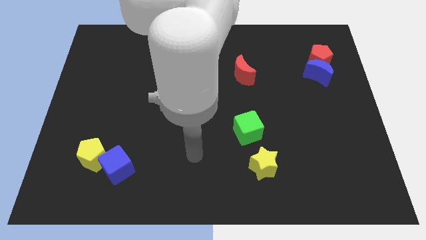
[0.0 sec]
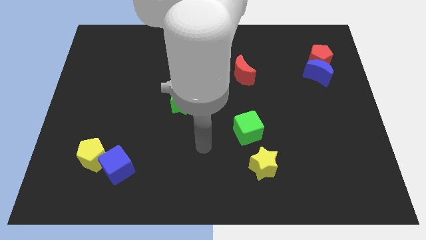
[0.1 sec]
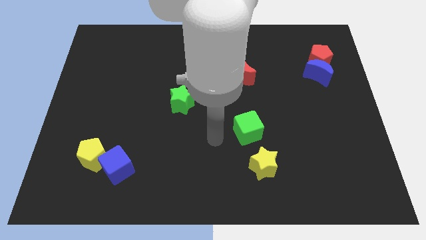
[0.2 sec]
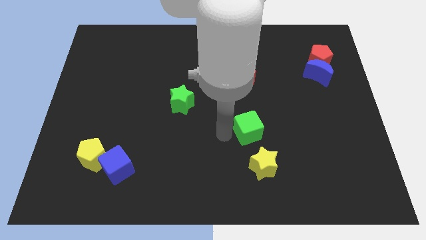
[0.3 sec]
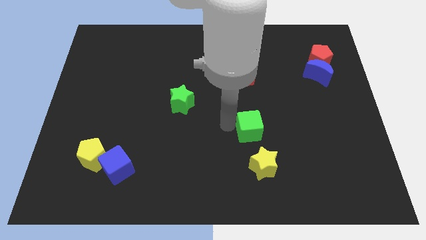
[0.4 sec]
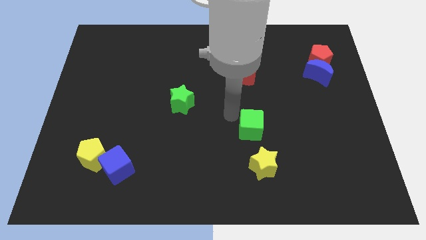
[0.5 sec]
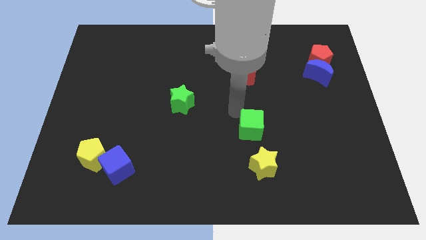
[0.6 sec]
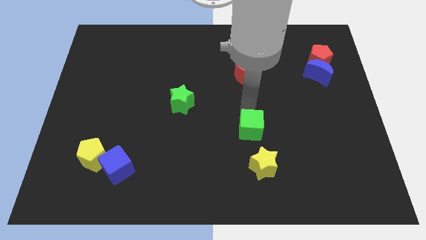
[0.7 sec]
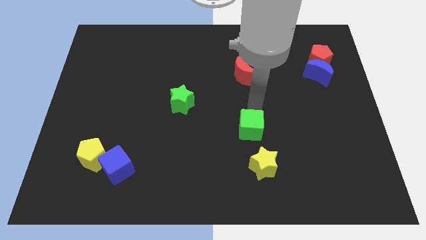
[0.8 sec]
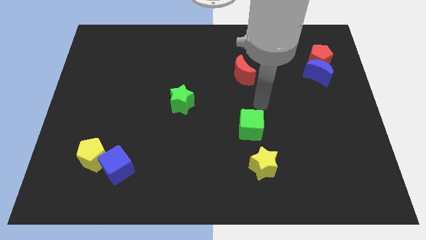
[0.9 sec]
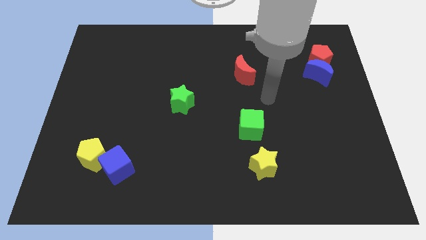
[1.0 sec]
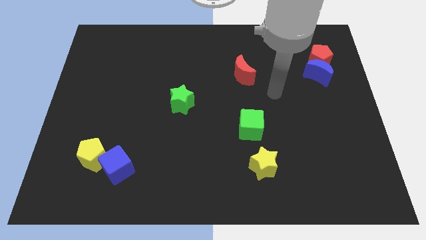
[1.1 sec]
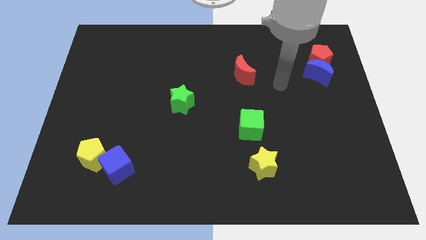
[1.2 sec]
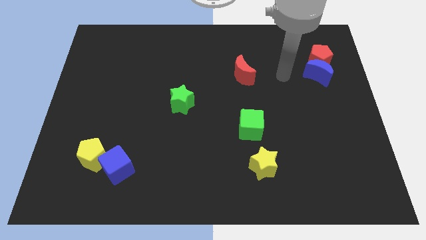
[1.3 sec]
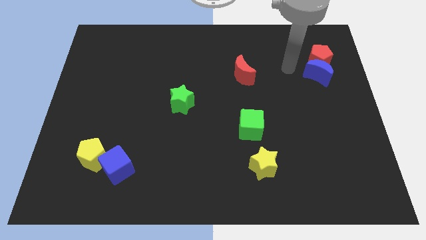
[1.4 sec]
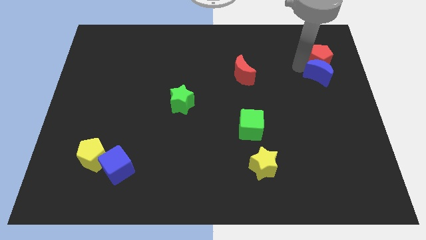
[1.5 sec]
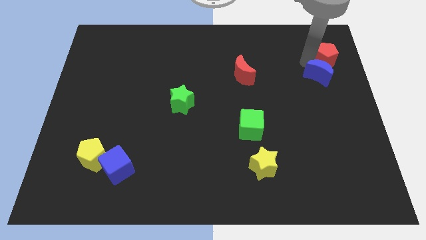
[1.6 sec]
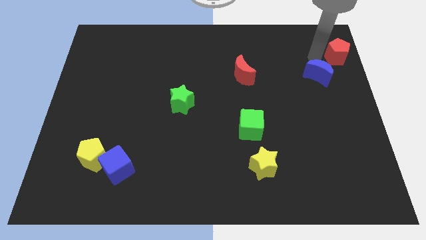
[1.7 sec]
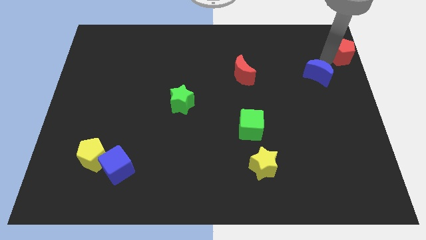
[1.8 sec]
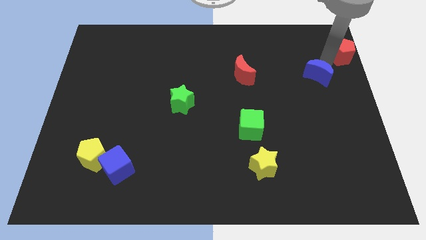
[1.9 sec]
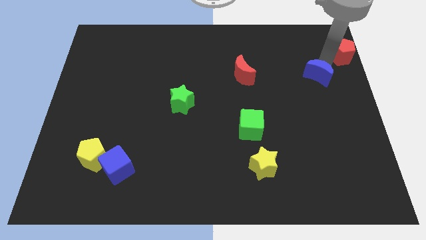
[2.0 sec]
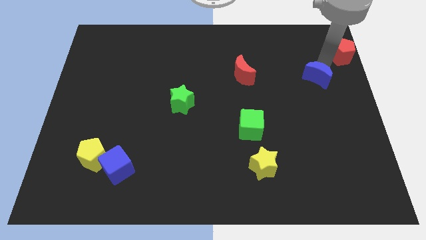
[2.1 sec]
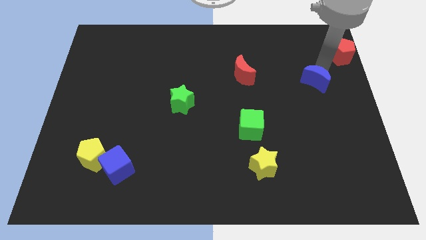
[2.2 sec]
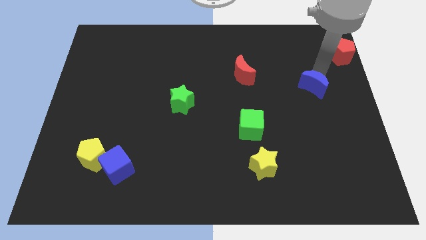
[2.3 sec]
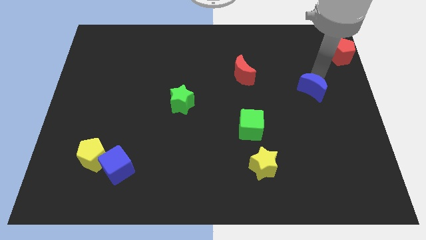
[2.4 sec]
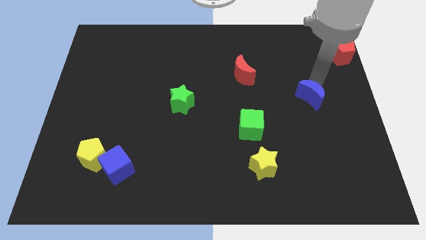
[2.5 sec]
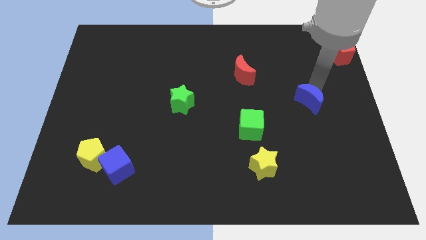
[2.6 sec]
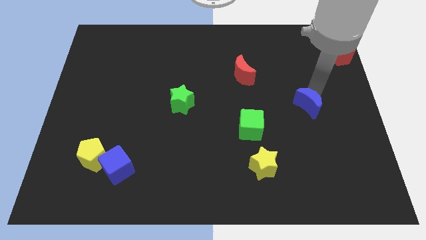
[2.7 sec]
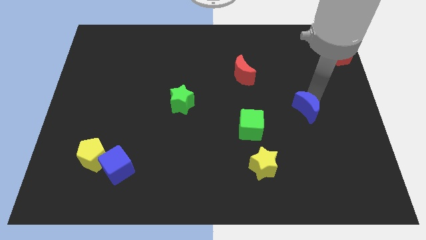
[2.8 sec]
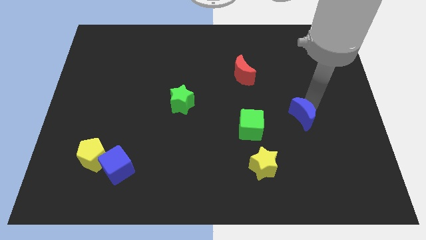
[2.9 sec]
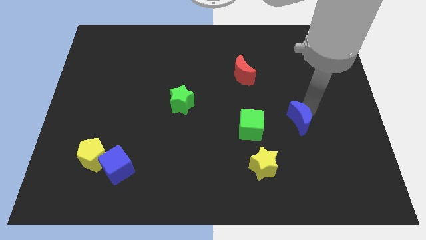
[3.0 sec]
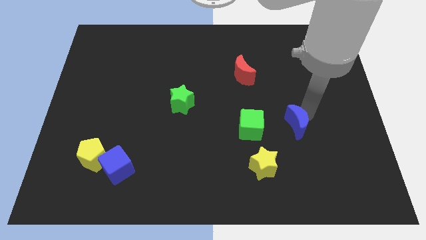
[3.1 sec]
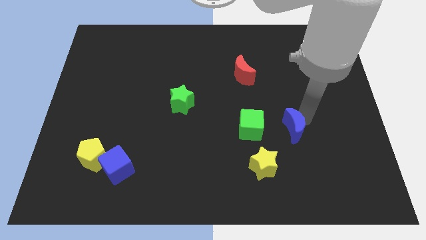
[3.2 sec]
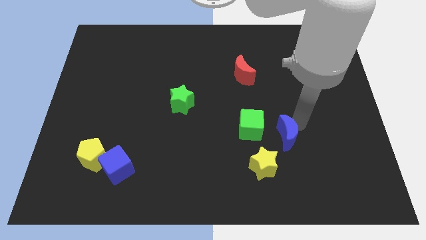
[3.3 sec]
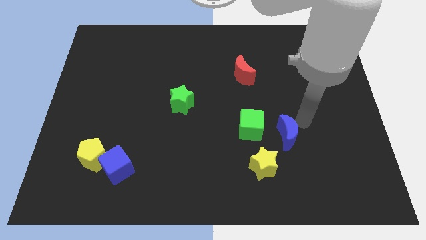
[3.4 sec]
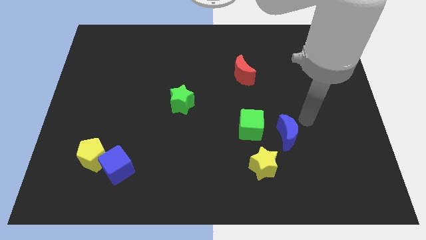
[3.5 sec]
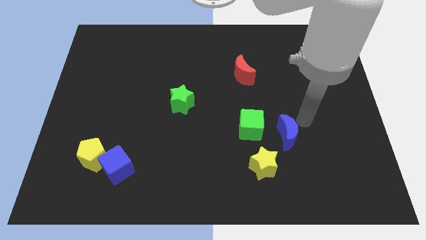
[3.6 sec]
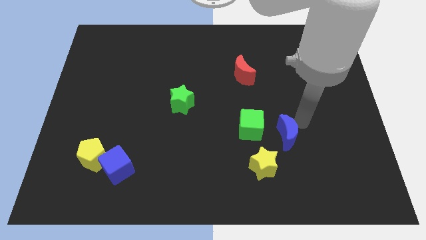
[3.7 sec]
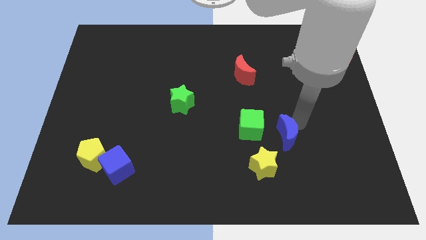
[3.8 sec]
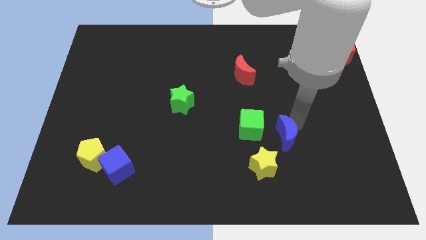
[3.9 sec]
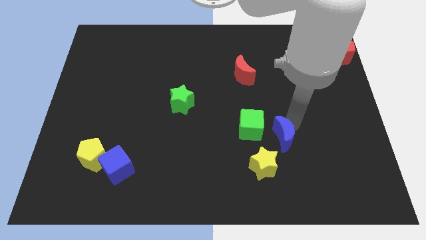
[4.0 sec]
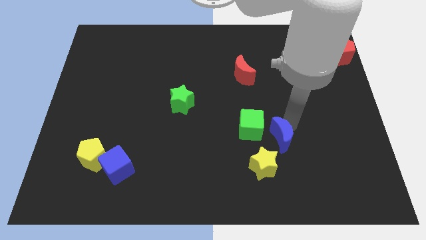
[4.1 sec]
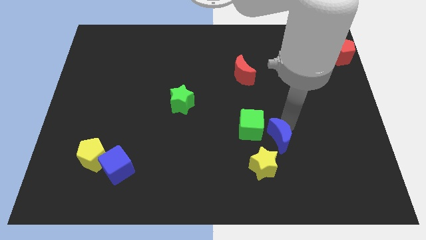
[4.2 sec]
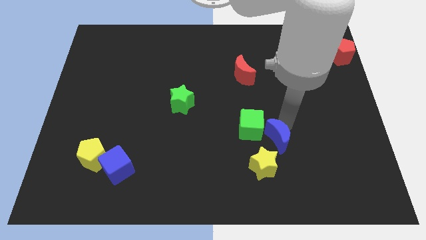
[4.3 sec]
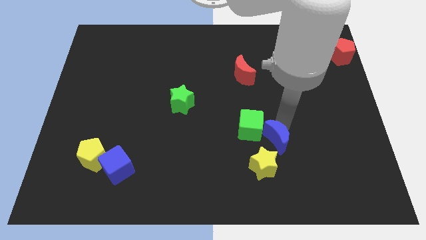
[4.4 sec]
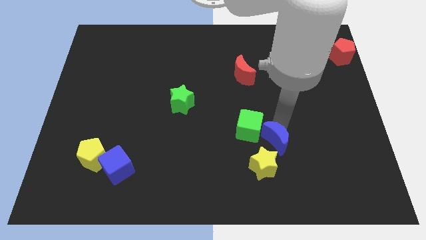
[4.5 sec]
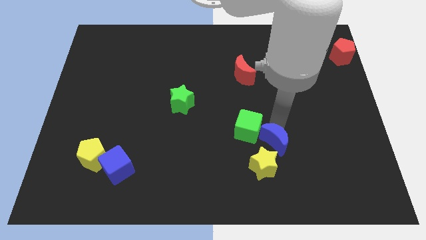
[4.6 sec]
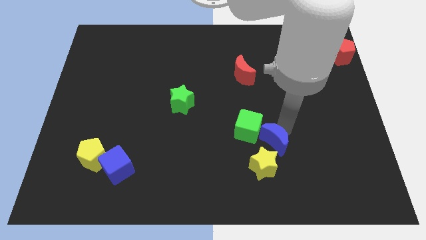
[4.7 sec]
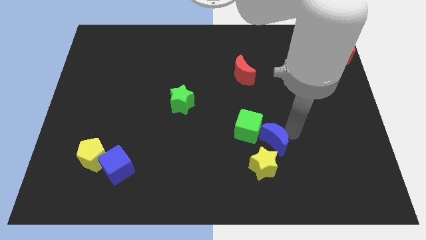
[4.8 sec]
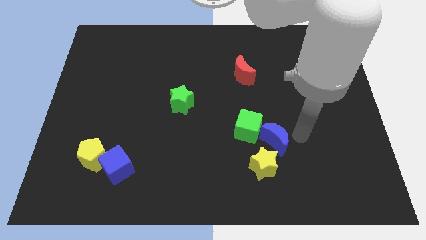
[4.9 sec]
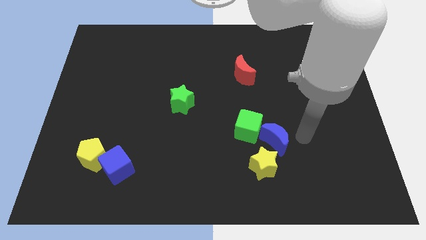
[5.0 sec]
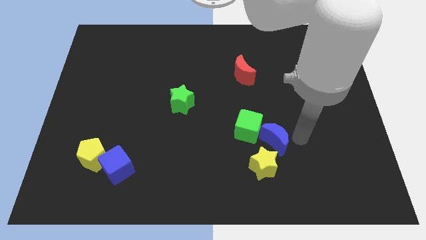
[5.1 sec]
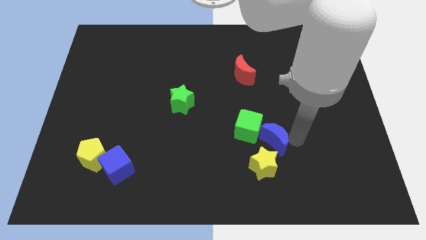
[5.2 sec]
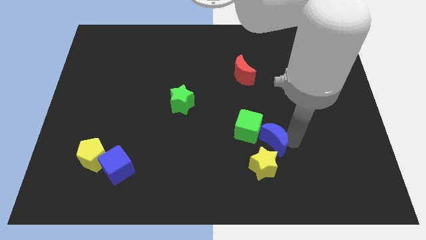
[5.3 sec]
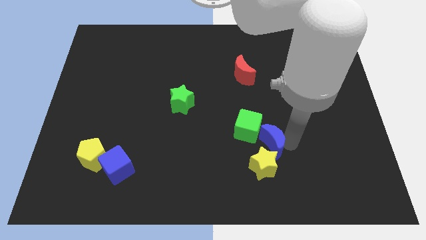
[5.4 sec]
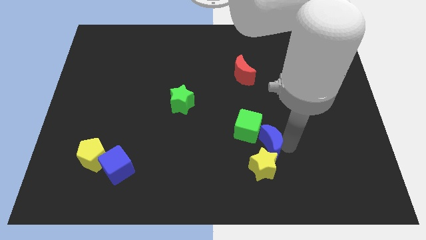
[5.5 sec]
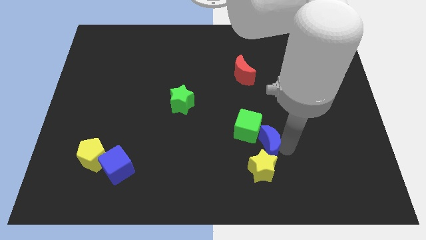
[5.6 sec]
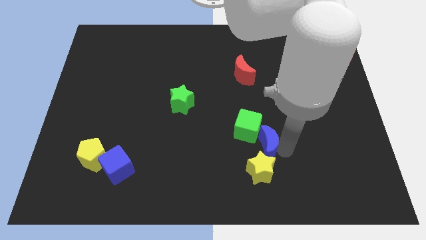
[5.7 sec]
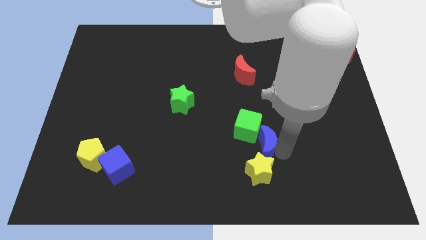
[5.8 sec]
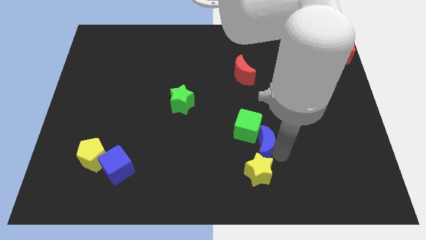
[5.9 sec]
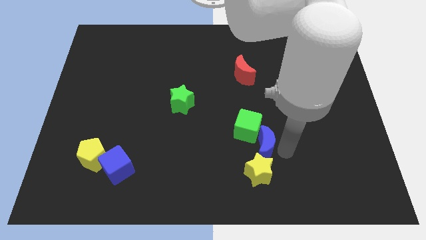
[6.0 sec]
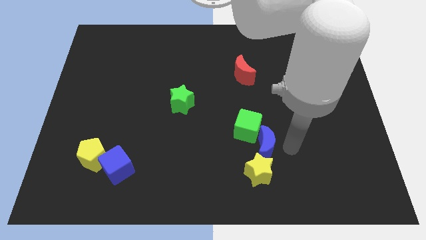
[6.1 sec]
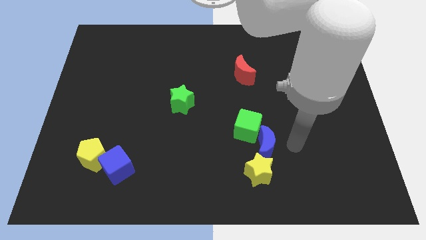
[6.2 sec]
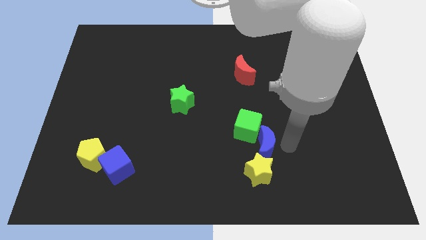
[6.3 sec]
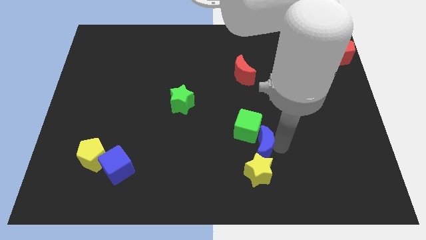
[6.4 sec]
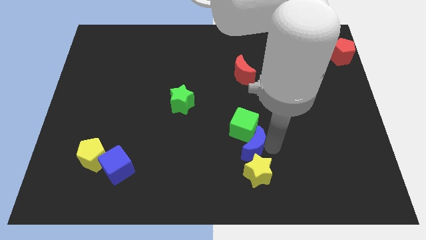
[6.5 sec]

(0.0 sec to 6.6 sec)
move the blue moon to the top left side of the yellow star
